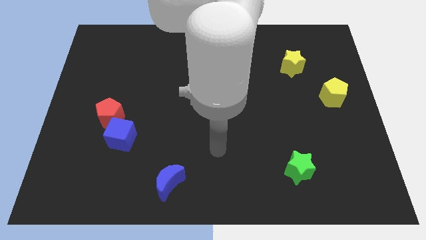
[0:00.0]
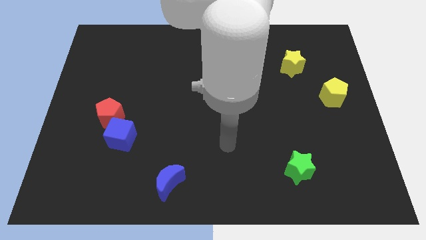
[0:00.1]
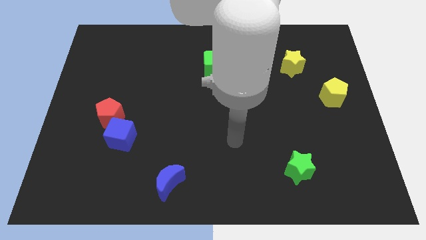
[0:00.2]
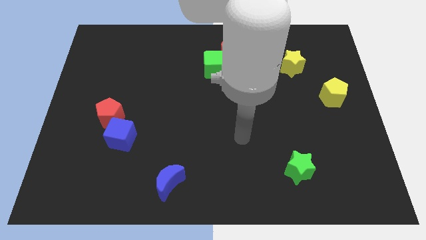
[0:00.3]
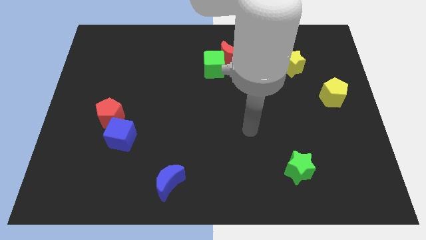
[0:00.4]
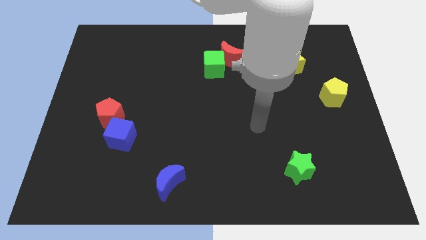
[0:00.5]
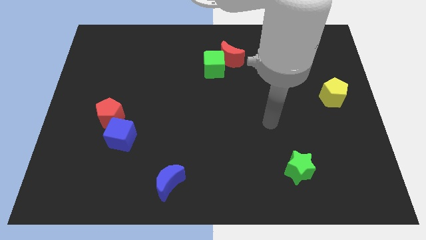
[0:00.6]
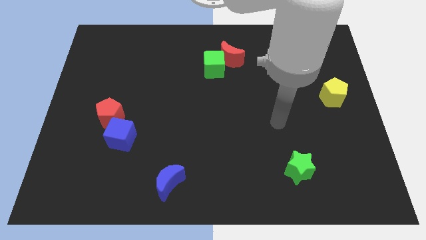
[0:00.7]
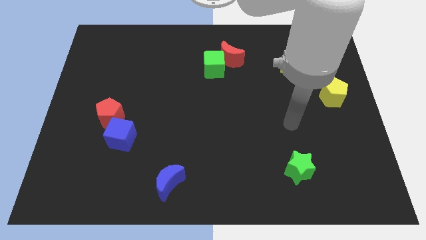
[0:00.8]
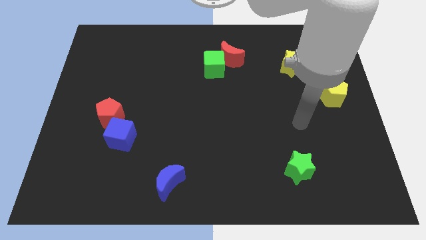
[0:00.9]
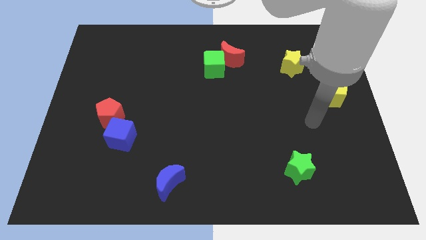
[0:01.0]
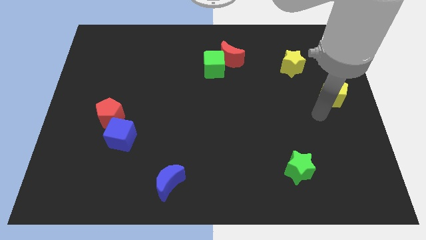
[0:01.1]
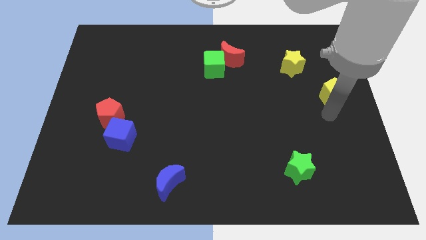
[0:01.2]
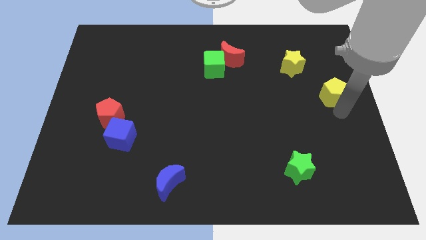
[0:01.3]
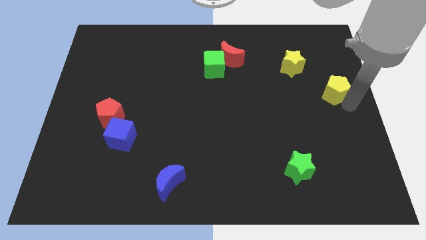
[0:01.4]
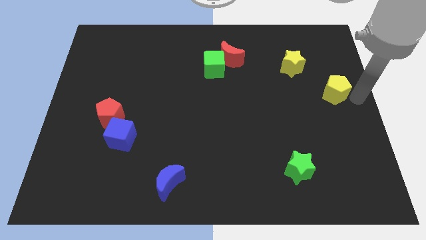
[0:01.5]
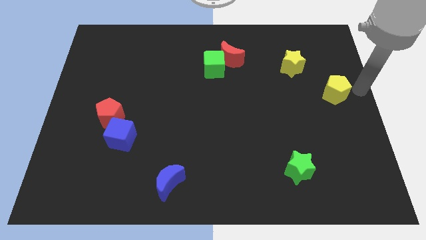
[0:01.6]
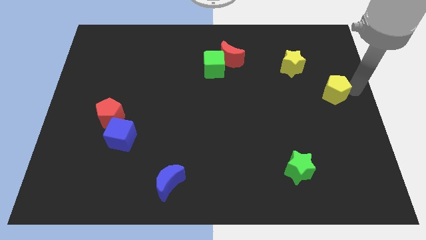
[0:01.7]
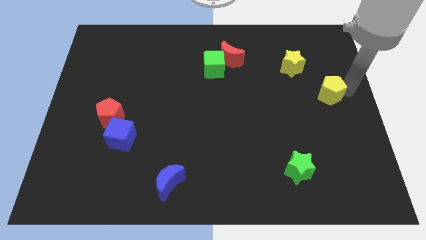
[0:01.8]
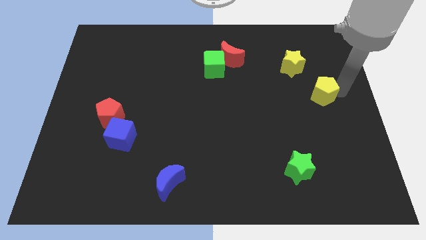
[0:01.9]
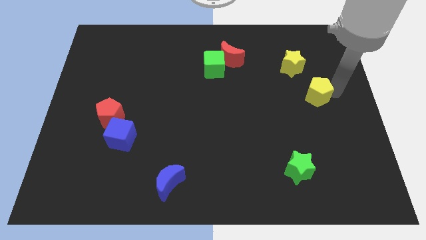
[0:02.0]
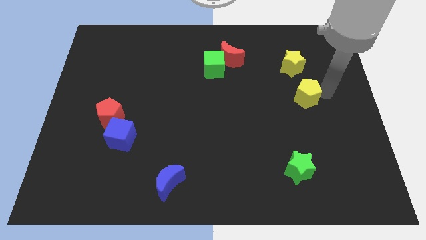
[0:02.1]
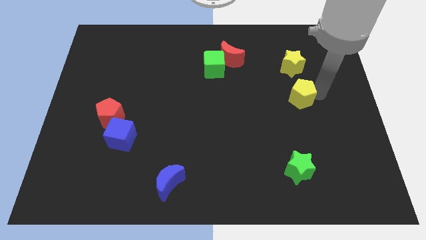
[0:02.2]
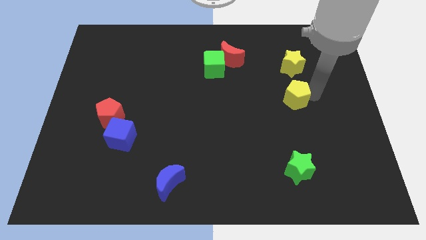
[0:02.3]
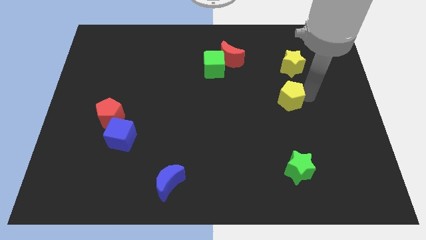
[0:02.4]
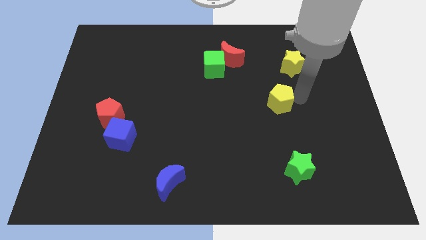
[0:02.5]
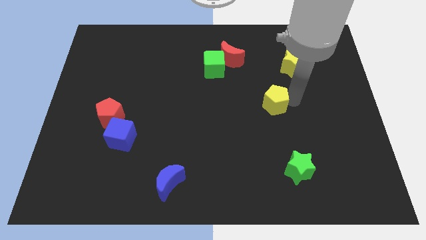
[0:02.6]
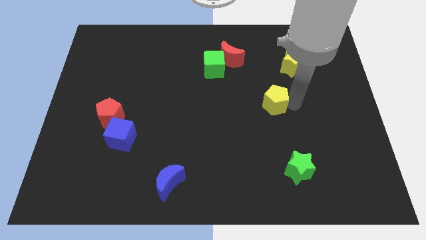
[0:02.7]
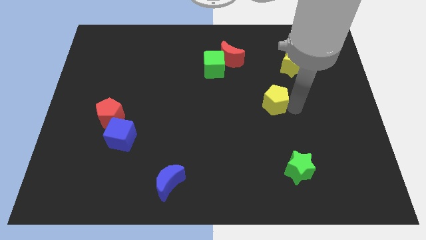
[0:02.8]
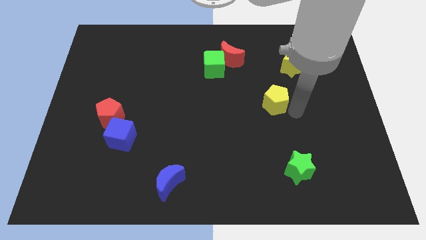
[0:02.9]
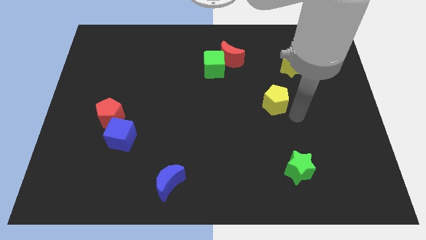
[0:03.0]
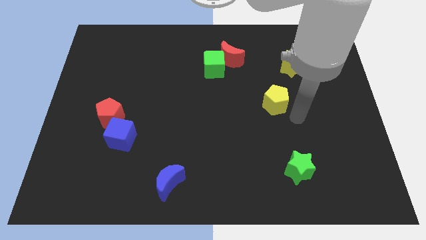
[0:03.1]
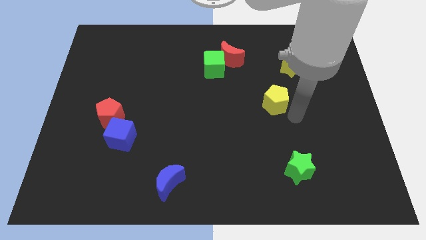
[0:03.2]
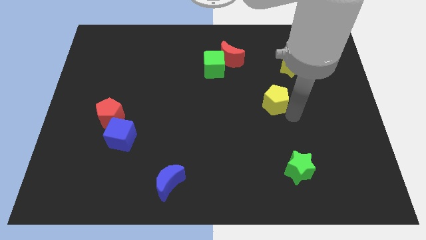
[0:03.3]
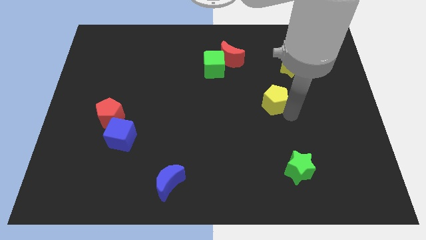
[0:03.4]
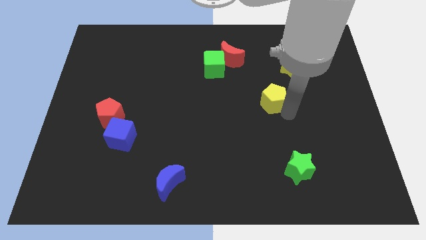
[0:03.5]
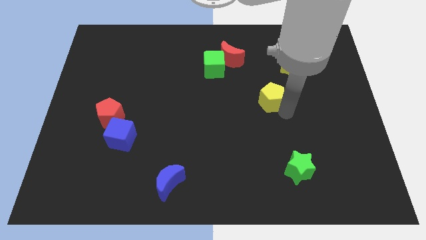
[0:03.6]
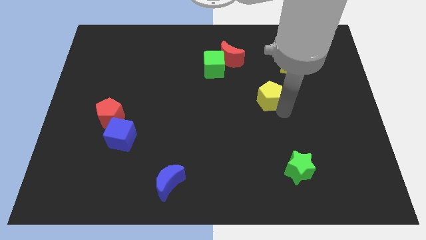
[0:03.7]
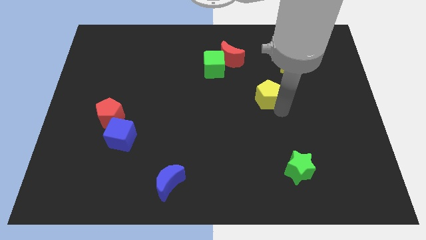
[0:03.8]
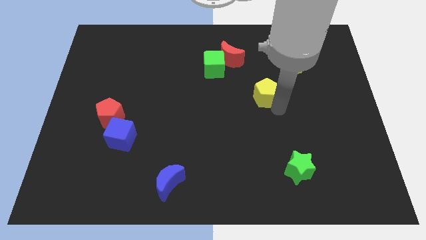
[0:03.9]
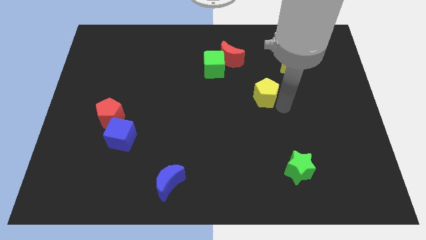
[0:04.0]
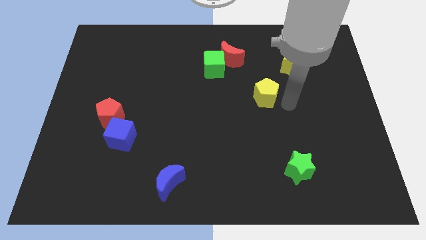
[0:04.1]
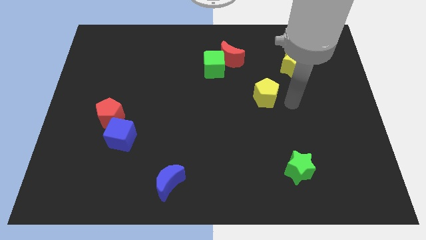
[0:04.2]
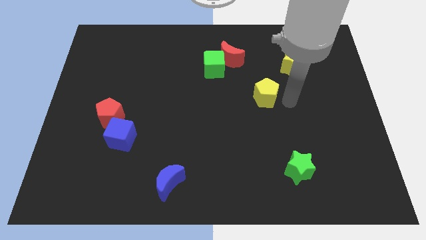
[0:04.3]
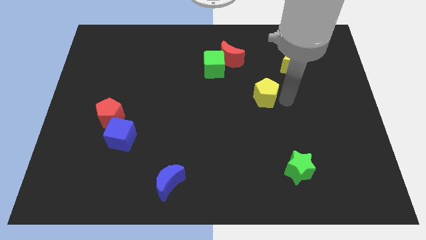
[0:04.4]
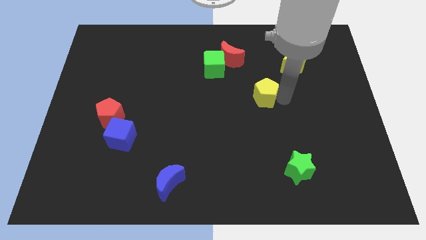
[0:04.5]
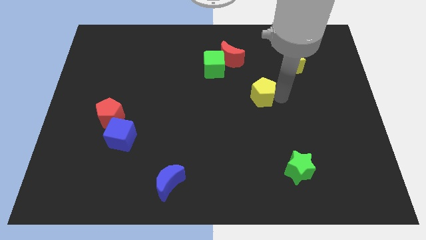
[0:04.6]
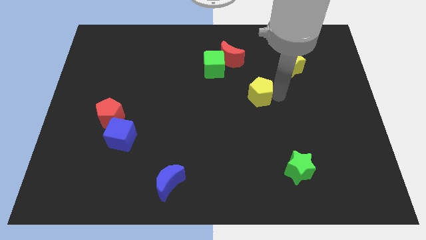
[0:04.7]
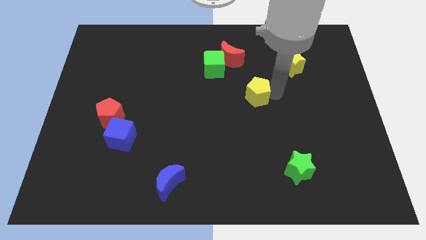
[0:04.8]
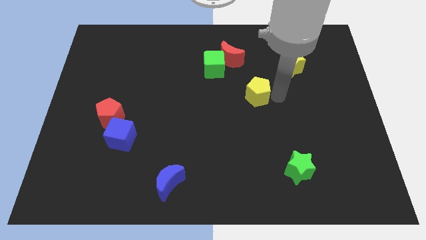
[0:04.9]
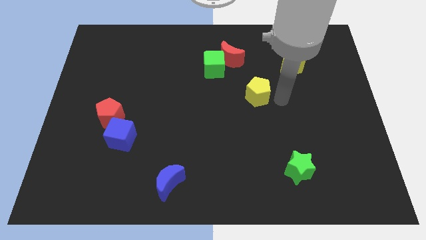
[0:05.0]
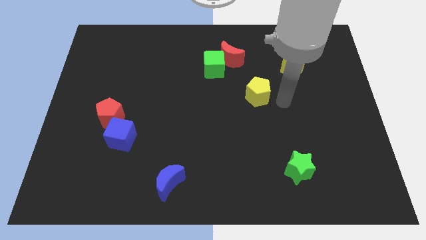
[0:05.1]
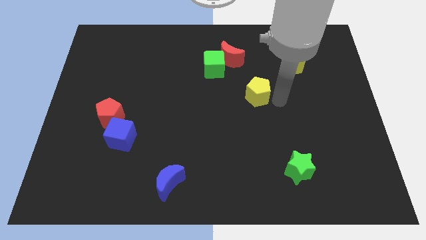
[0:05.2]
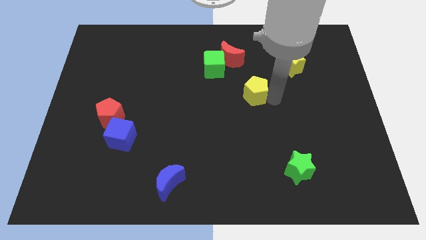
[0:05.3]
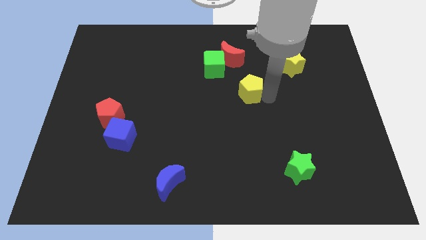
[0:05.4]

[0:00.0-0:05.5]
push the yellow pentagon left

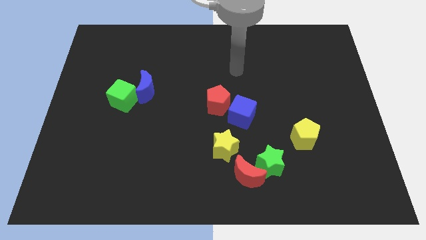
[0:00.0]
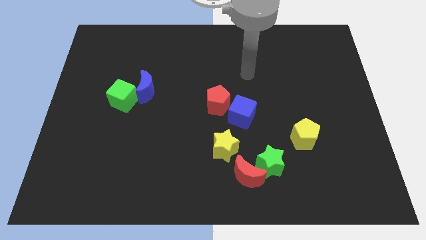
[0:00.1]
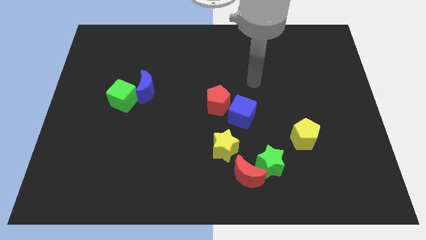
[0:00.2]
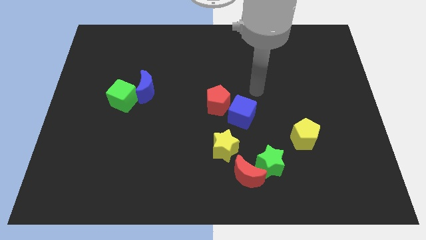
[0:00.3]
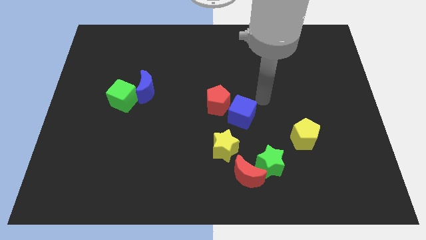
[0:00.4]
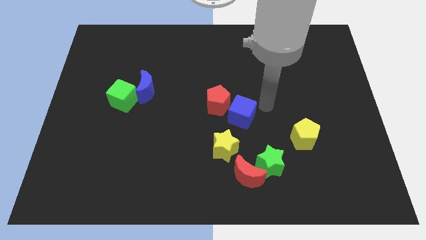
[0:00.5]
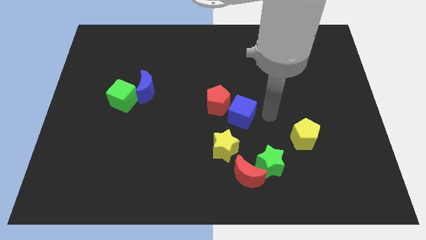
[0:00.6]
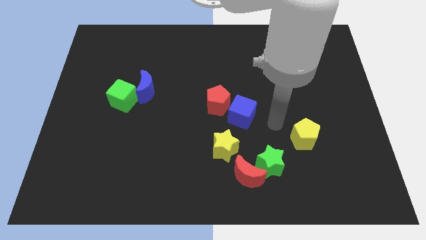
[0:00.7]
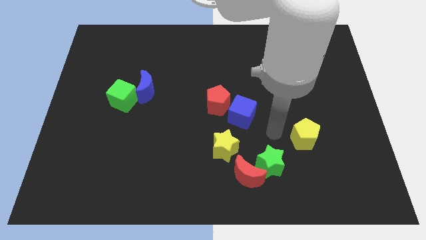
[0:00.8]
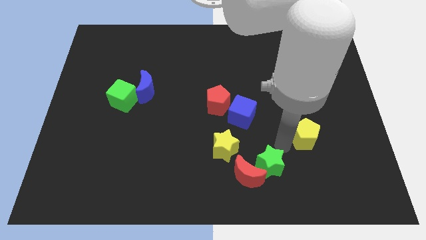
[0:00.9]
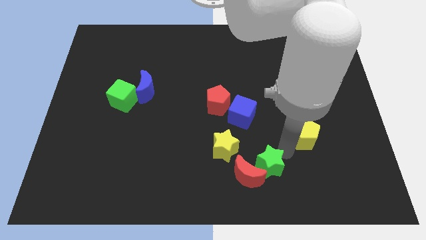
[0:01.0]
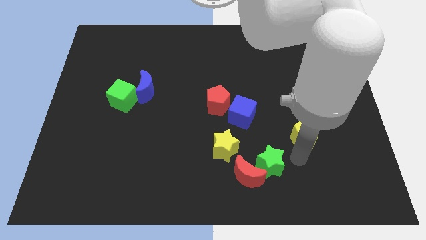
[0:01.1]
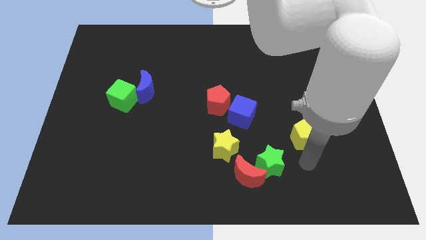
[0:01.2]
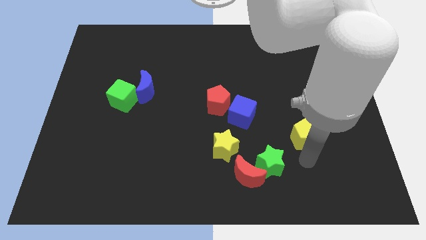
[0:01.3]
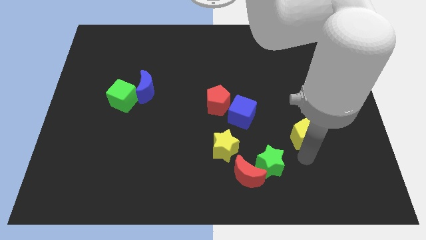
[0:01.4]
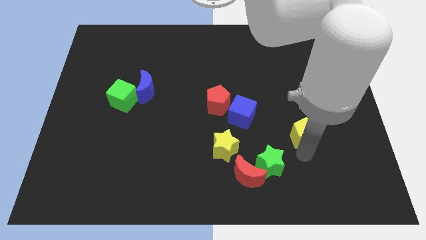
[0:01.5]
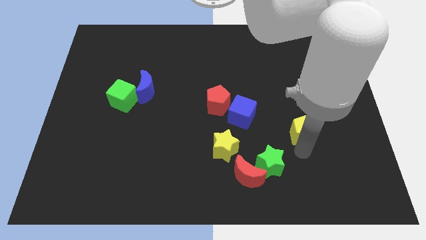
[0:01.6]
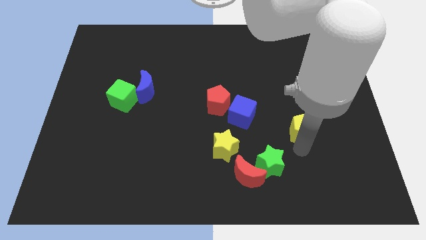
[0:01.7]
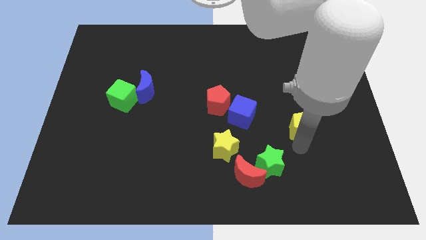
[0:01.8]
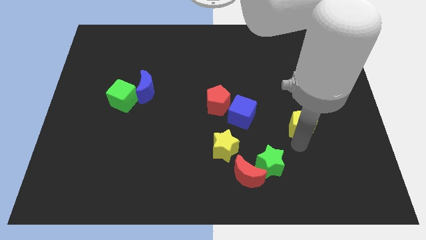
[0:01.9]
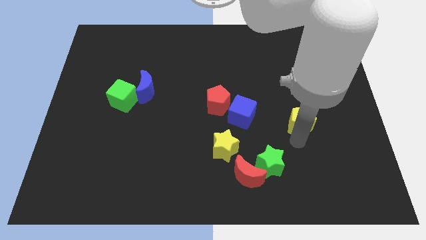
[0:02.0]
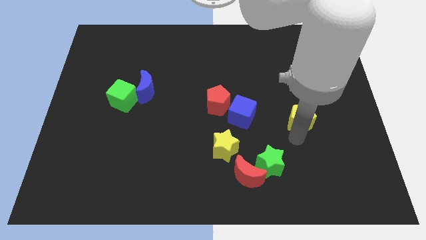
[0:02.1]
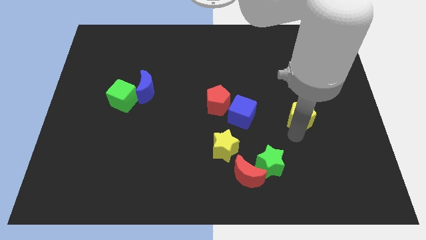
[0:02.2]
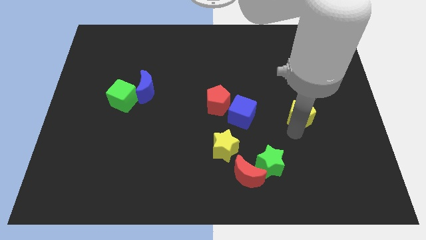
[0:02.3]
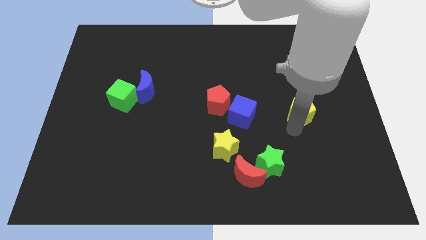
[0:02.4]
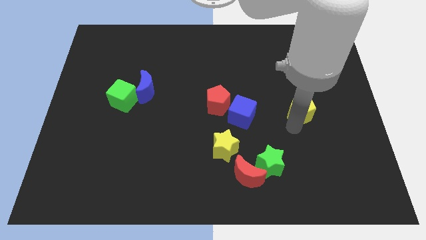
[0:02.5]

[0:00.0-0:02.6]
push the yellow pentagon upwards somewhat
